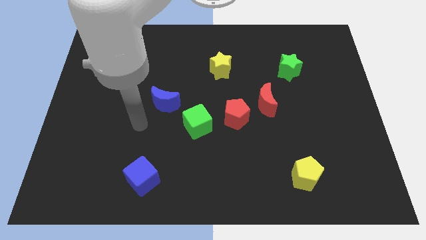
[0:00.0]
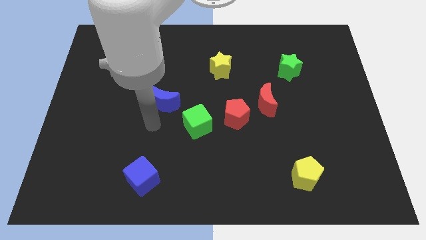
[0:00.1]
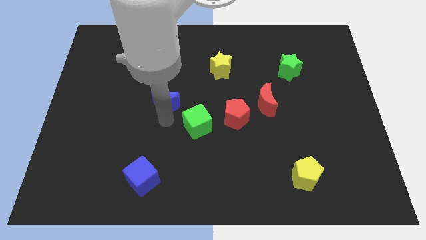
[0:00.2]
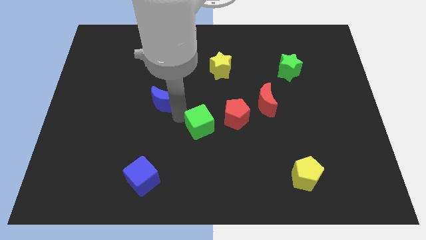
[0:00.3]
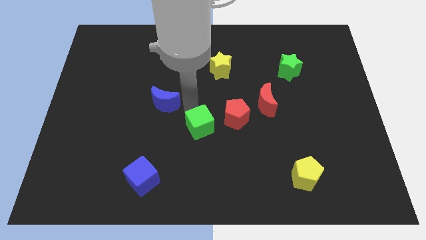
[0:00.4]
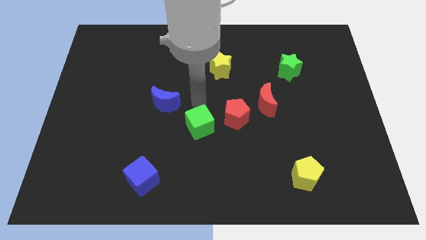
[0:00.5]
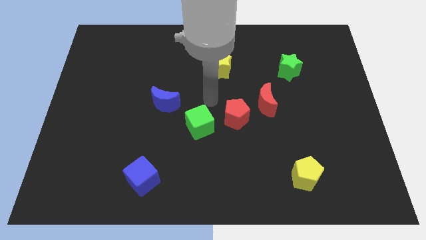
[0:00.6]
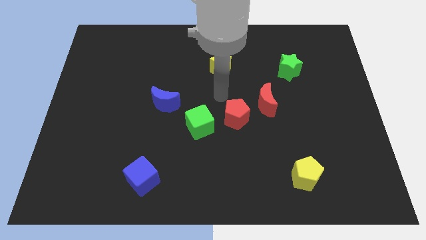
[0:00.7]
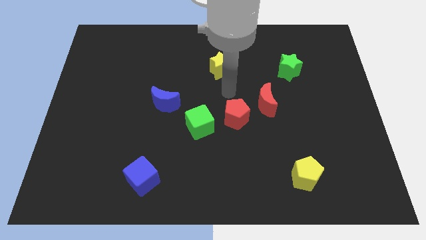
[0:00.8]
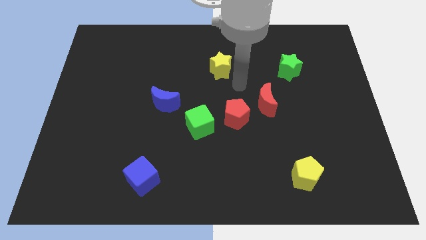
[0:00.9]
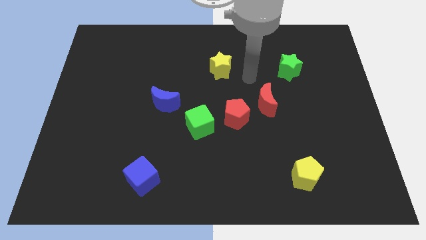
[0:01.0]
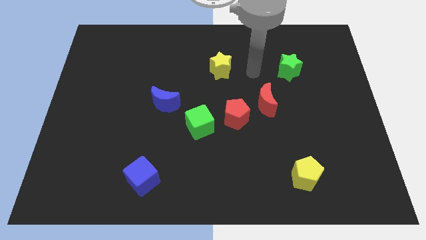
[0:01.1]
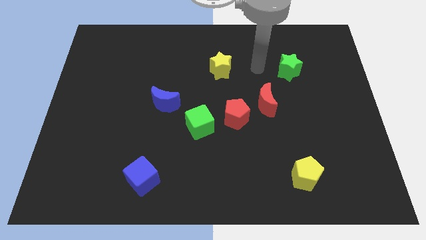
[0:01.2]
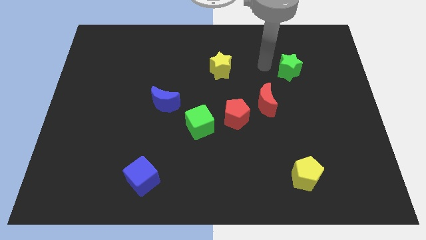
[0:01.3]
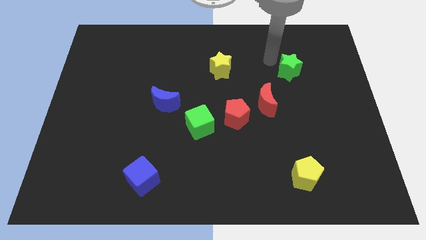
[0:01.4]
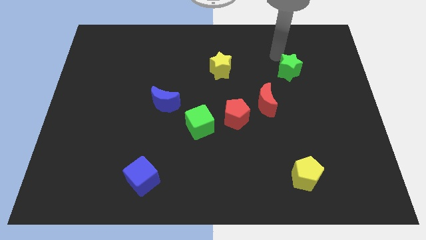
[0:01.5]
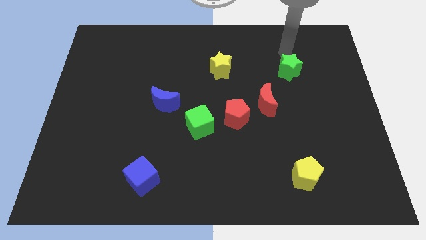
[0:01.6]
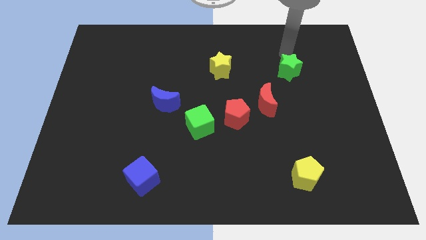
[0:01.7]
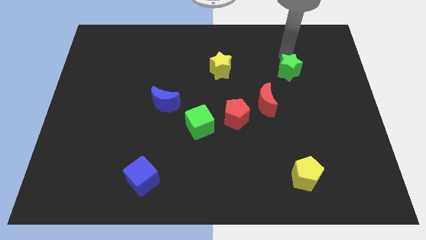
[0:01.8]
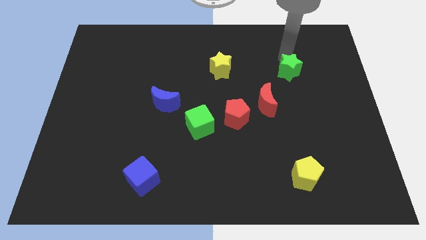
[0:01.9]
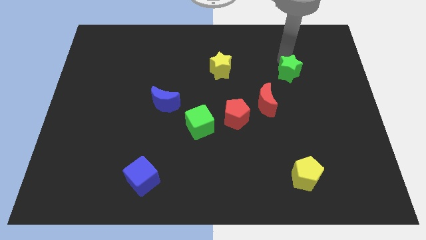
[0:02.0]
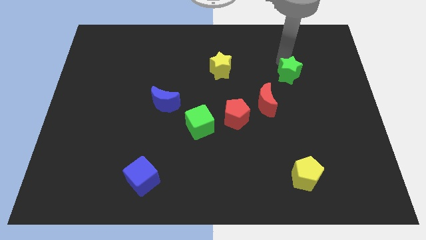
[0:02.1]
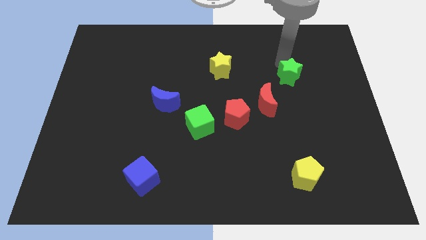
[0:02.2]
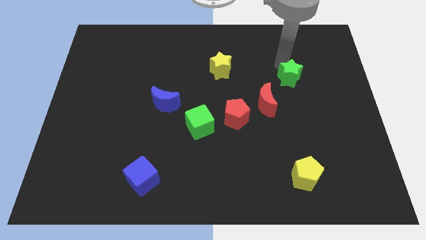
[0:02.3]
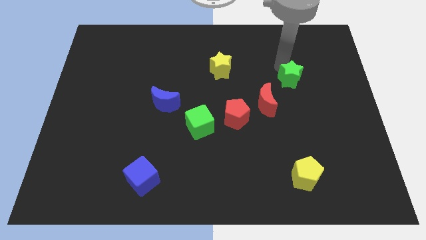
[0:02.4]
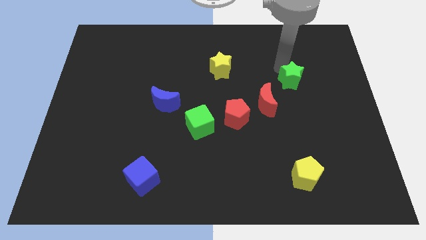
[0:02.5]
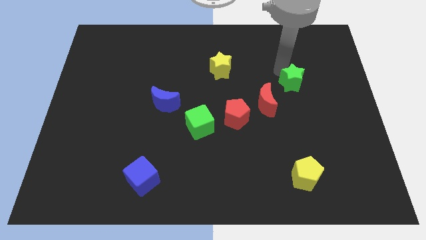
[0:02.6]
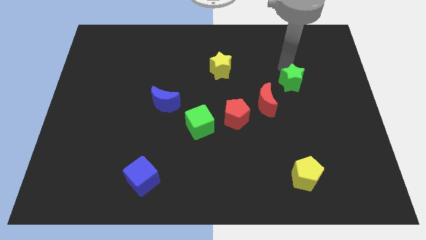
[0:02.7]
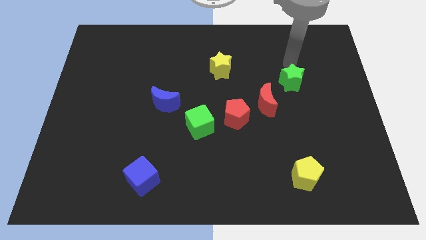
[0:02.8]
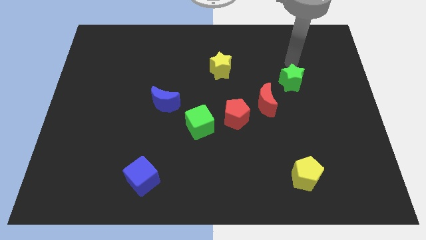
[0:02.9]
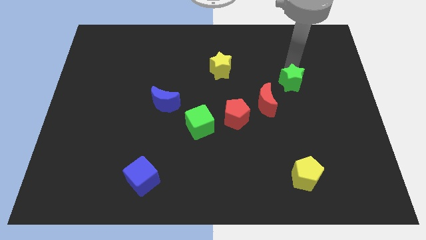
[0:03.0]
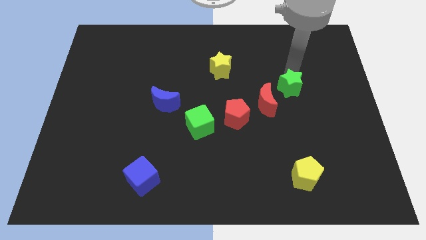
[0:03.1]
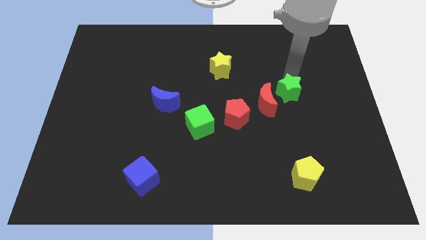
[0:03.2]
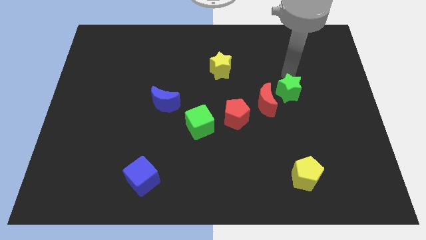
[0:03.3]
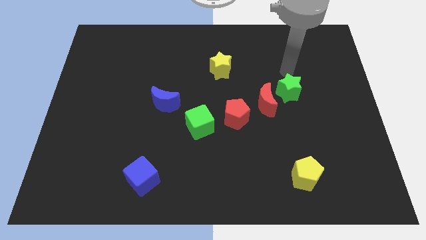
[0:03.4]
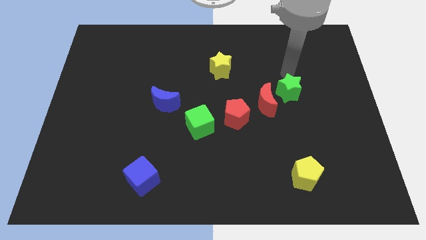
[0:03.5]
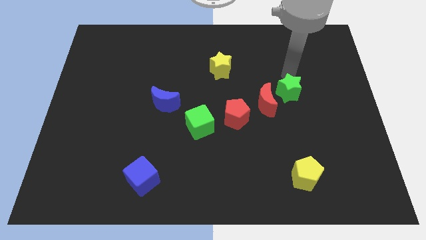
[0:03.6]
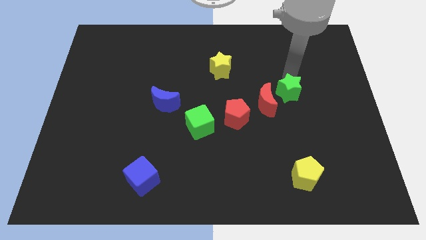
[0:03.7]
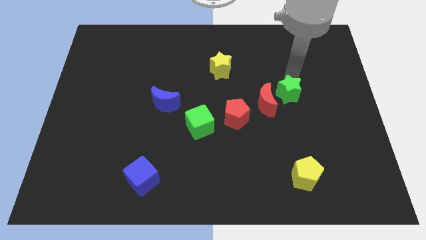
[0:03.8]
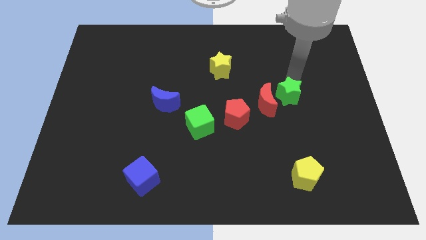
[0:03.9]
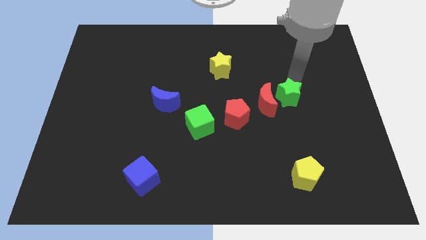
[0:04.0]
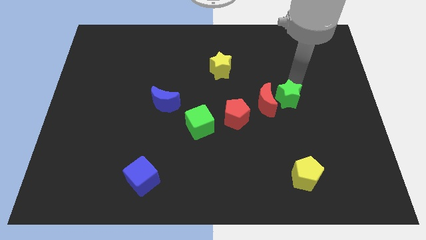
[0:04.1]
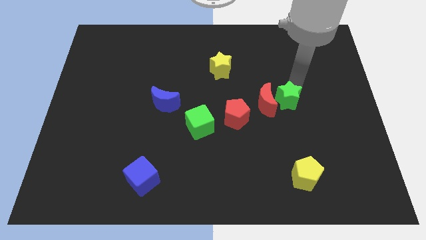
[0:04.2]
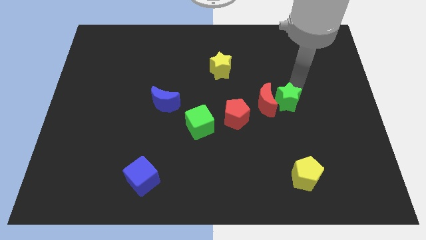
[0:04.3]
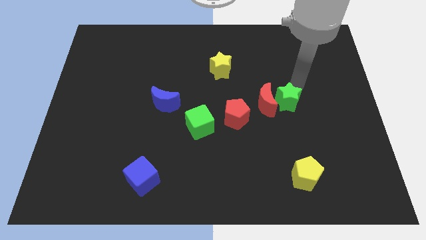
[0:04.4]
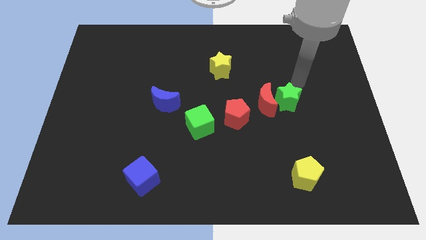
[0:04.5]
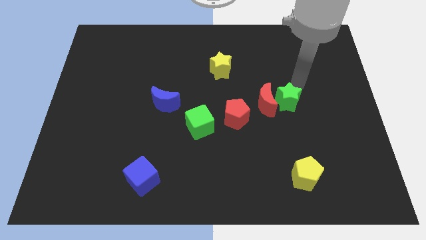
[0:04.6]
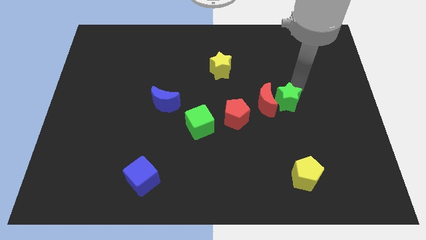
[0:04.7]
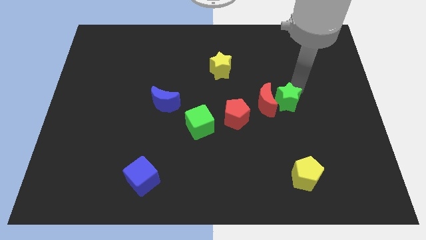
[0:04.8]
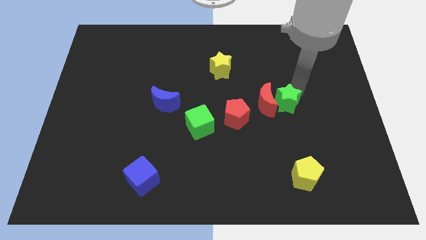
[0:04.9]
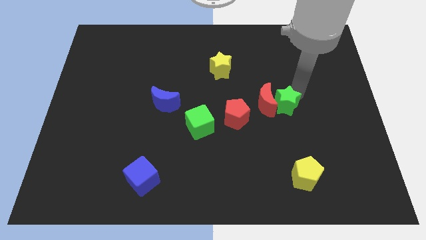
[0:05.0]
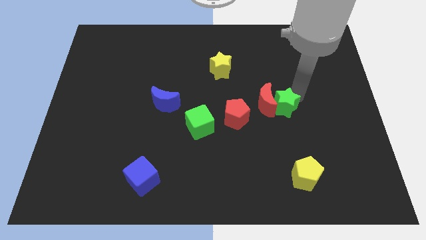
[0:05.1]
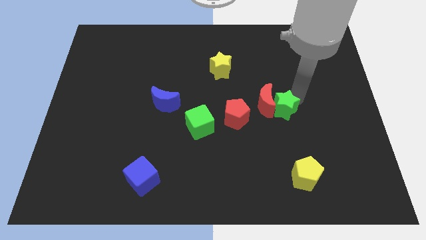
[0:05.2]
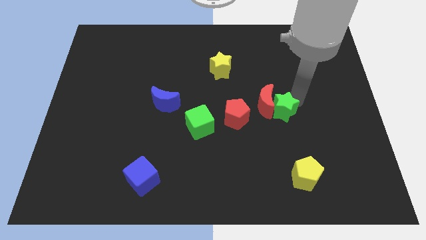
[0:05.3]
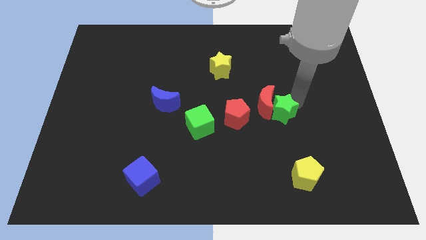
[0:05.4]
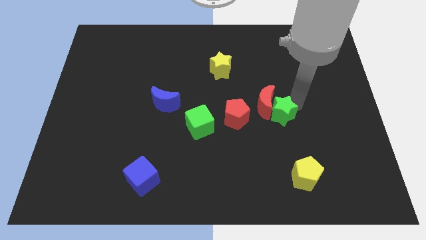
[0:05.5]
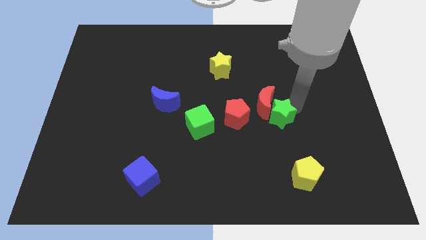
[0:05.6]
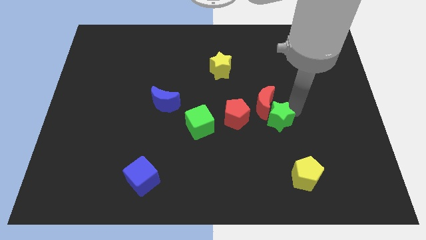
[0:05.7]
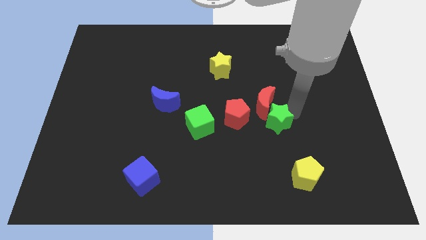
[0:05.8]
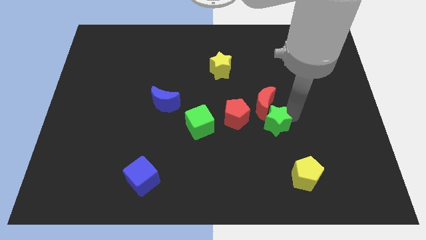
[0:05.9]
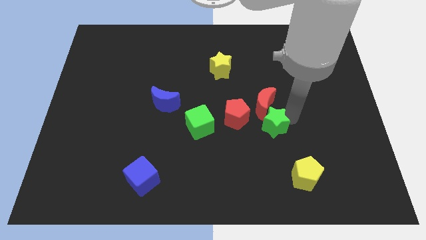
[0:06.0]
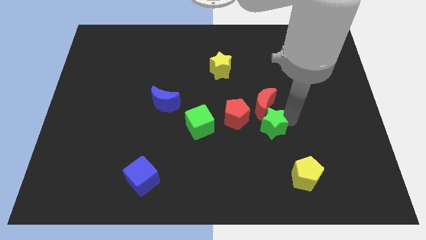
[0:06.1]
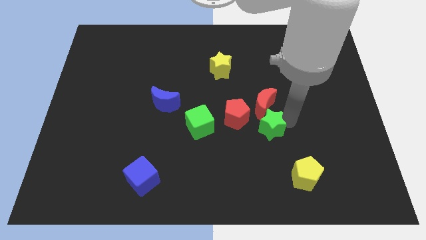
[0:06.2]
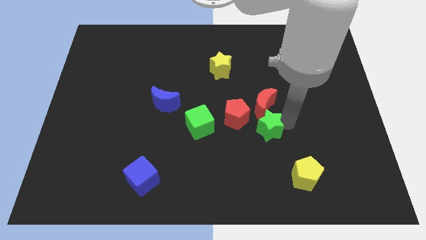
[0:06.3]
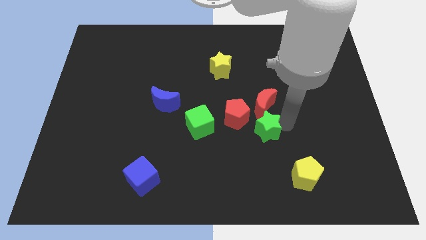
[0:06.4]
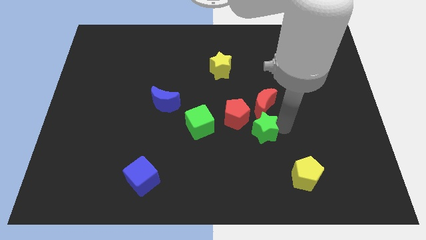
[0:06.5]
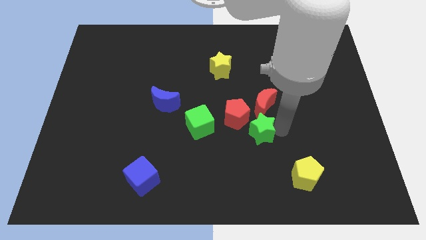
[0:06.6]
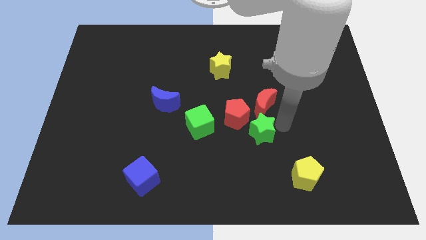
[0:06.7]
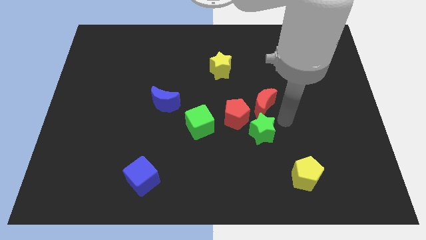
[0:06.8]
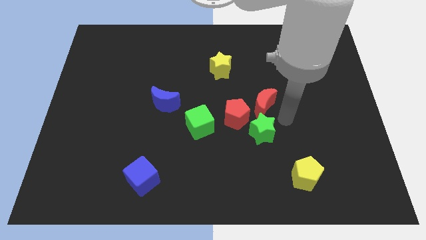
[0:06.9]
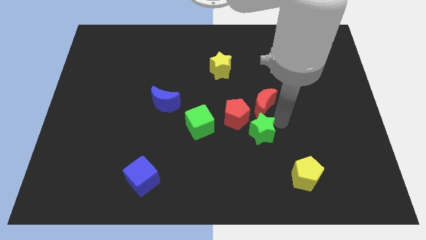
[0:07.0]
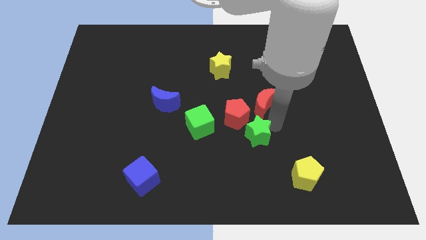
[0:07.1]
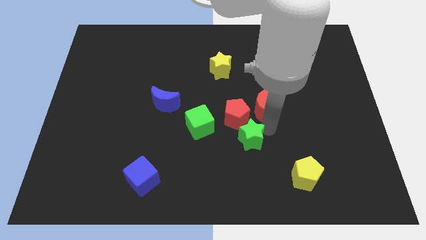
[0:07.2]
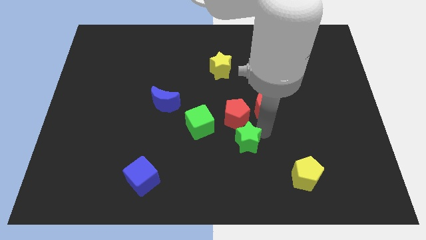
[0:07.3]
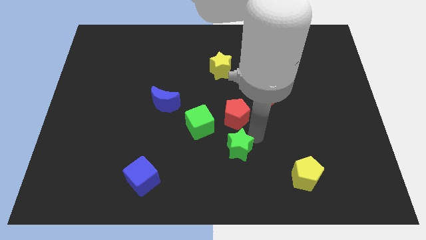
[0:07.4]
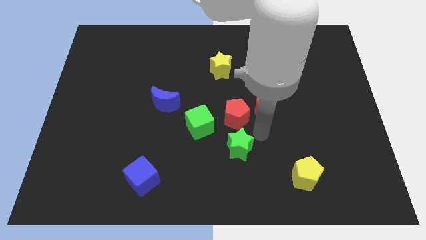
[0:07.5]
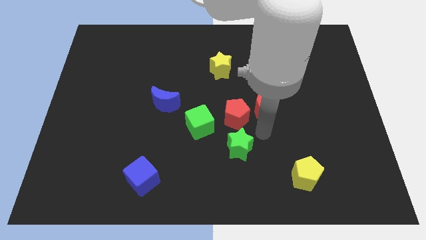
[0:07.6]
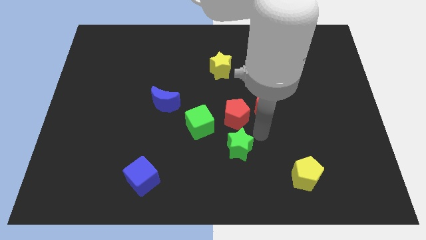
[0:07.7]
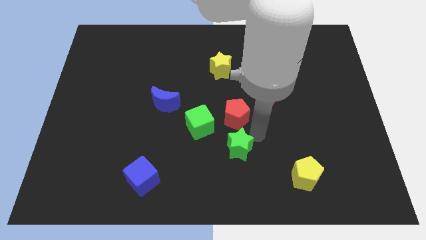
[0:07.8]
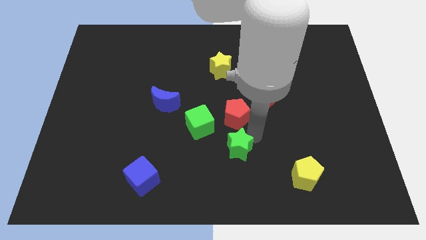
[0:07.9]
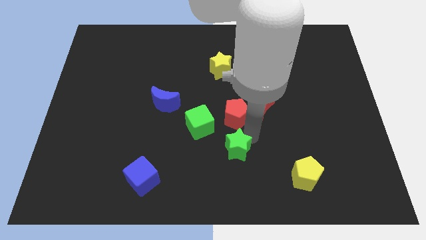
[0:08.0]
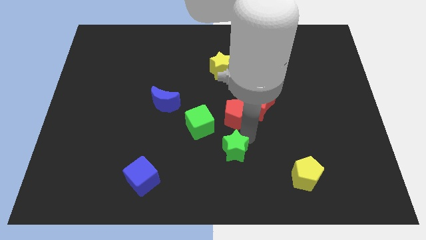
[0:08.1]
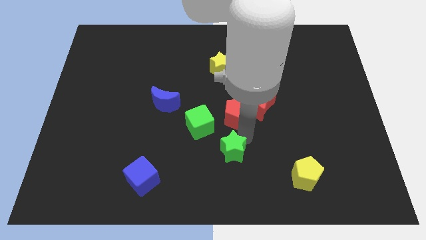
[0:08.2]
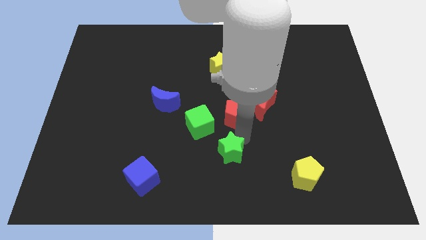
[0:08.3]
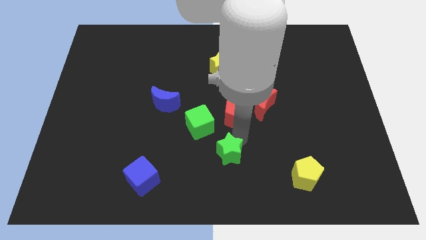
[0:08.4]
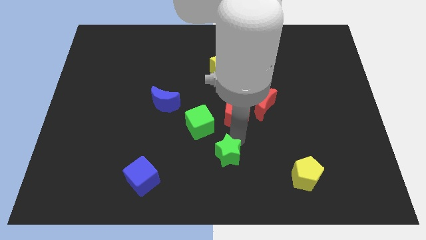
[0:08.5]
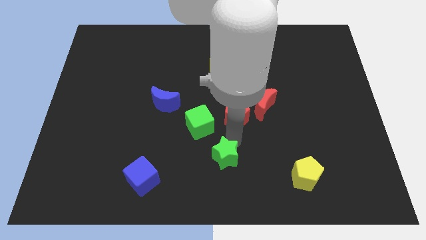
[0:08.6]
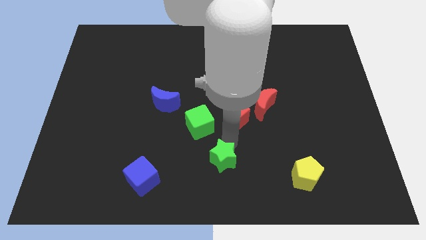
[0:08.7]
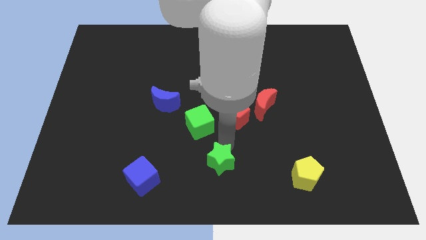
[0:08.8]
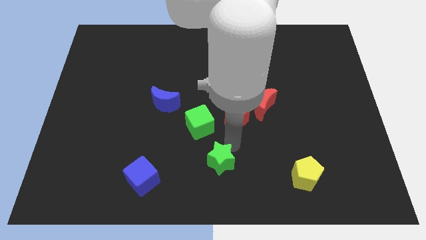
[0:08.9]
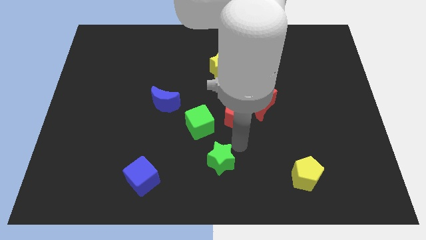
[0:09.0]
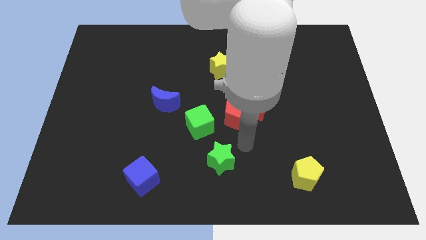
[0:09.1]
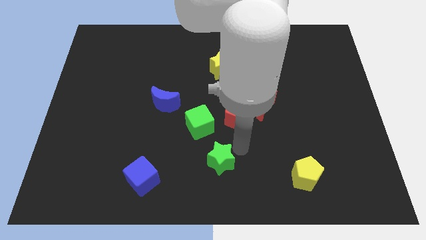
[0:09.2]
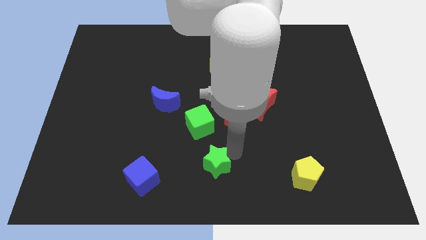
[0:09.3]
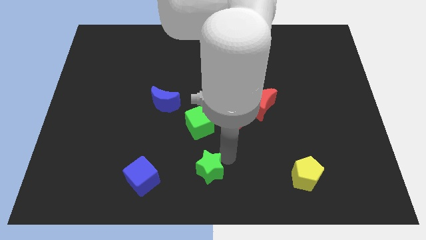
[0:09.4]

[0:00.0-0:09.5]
move the green star right of the blue cube
